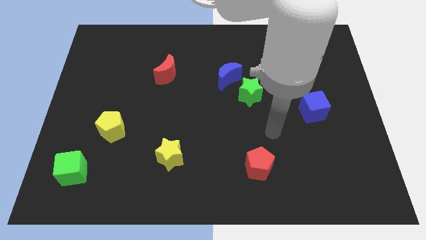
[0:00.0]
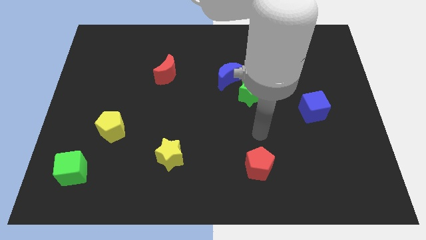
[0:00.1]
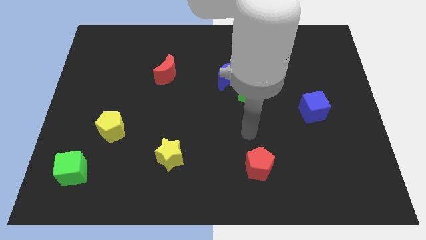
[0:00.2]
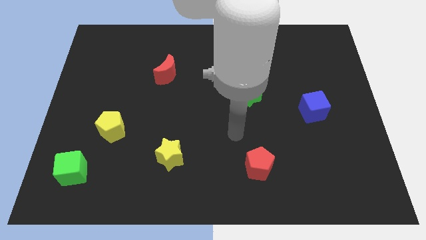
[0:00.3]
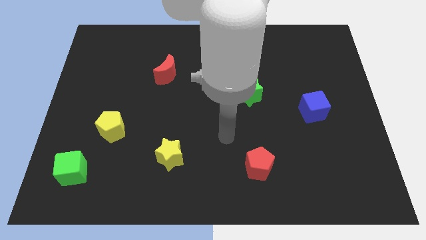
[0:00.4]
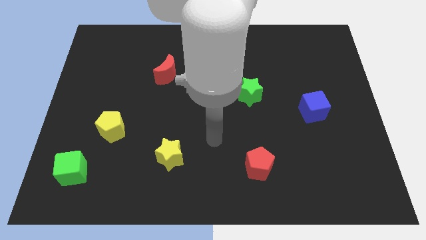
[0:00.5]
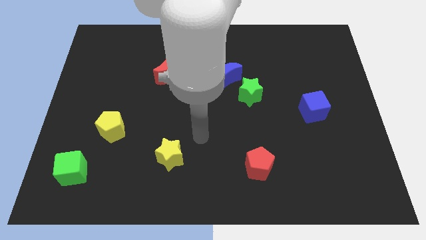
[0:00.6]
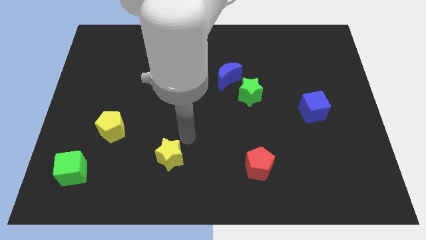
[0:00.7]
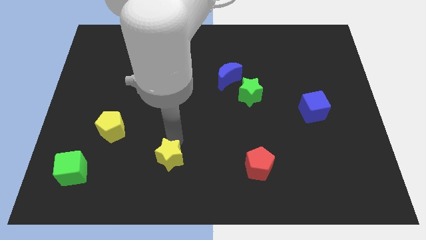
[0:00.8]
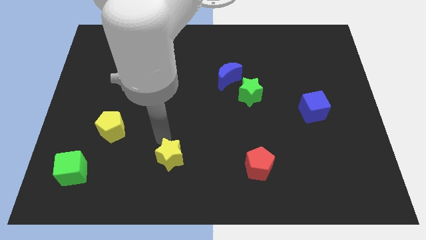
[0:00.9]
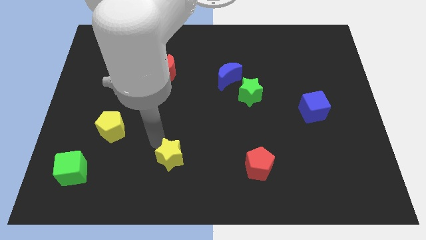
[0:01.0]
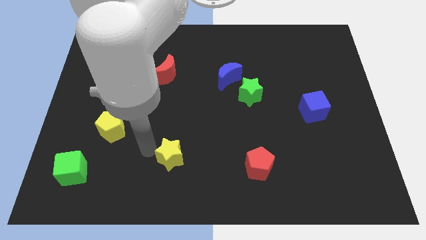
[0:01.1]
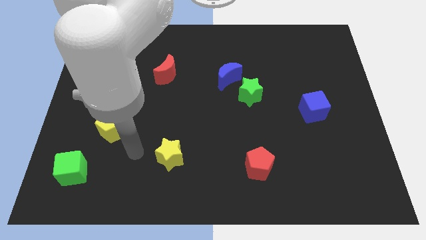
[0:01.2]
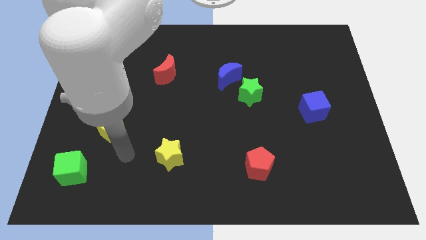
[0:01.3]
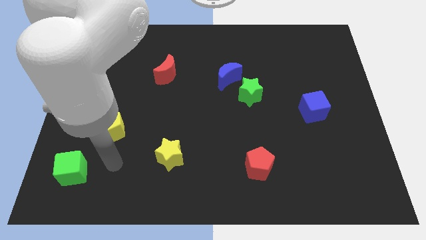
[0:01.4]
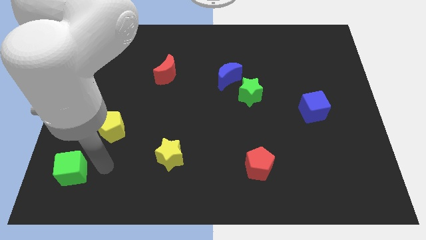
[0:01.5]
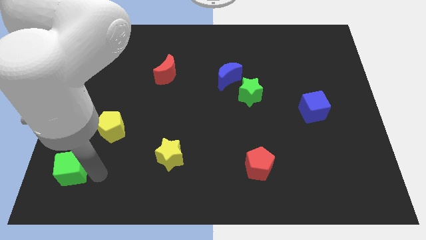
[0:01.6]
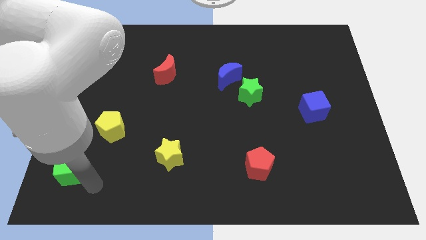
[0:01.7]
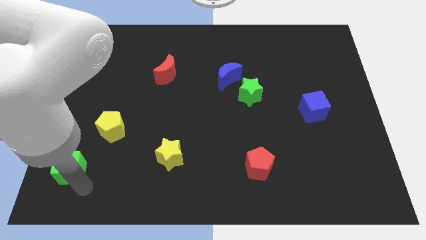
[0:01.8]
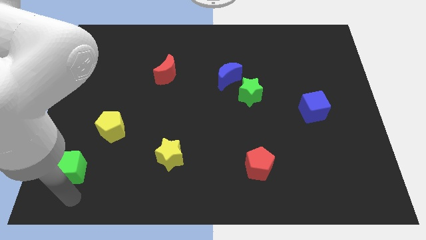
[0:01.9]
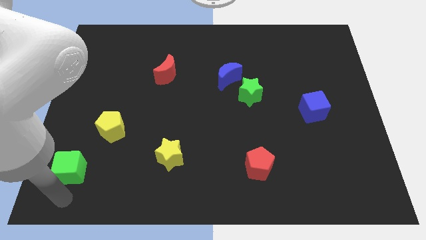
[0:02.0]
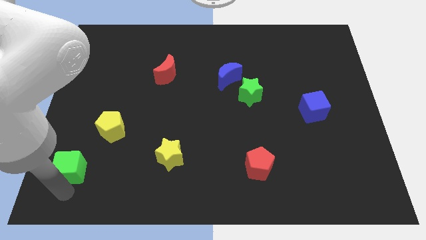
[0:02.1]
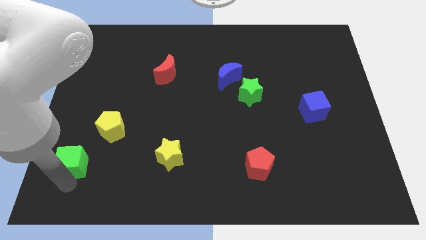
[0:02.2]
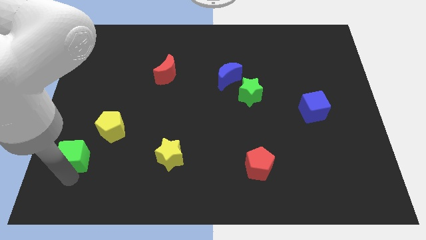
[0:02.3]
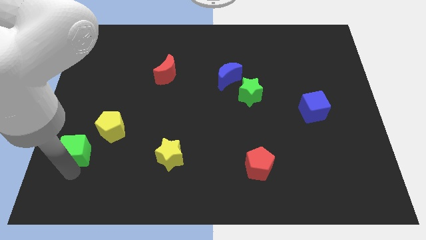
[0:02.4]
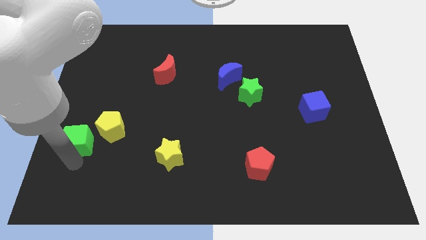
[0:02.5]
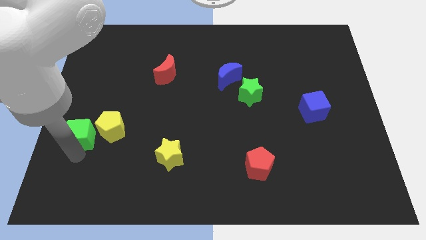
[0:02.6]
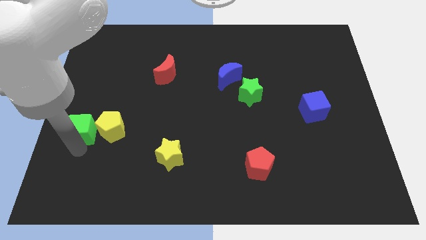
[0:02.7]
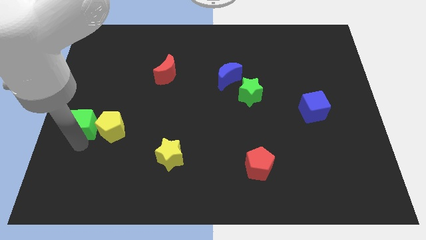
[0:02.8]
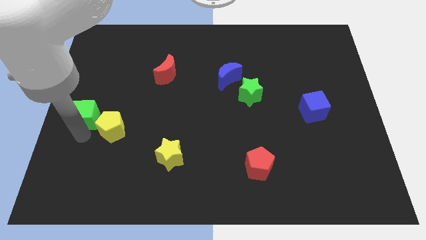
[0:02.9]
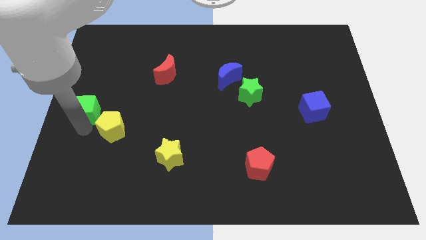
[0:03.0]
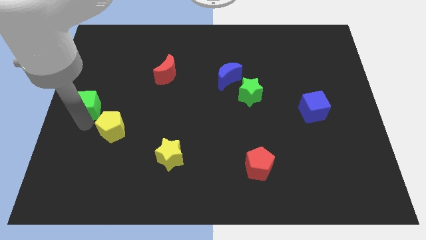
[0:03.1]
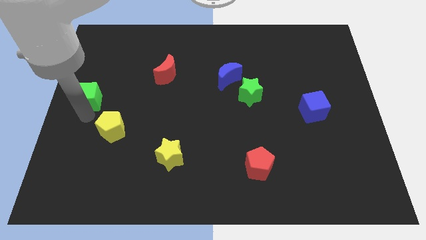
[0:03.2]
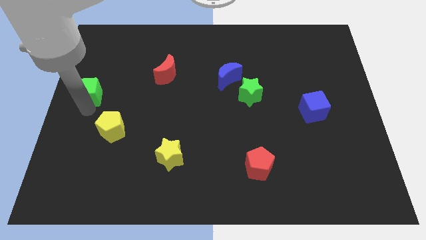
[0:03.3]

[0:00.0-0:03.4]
move the green cube up

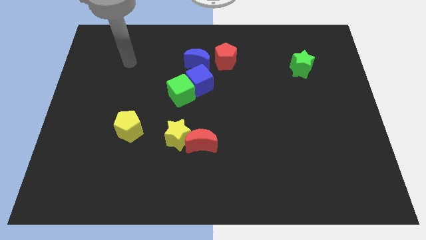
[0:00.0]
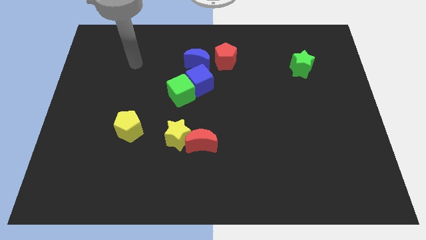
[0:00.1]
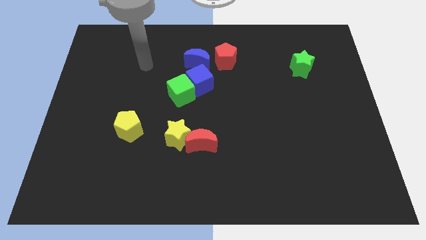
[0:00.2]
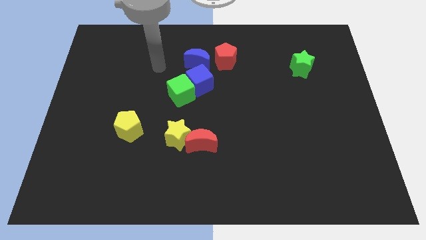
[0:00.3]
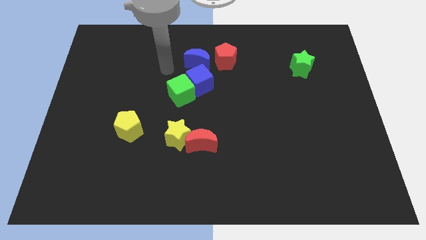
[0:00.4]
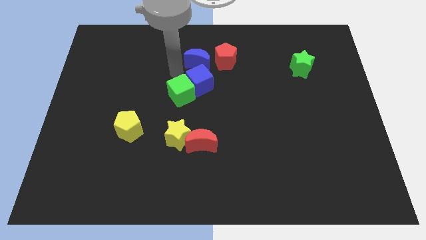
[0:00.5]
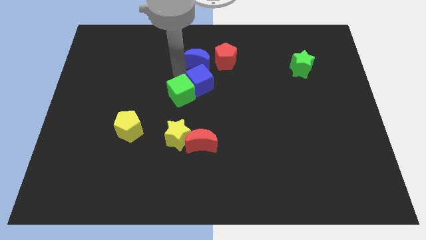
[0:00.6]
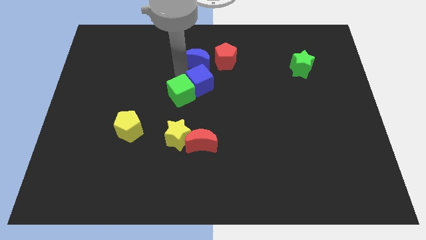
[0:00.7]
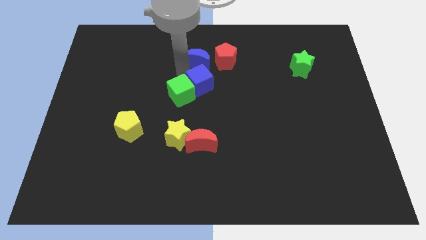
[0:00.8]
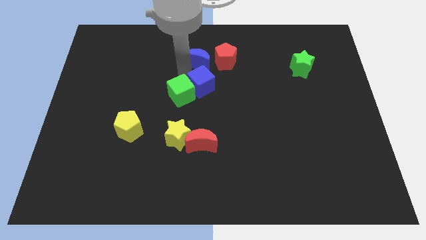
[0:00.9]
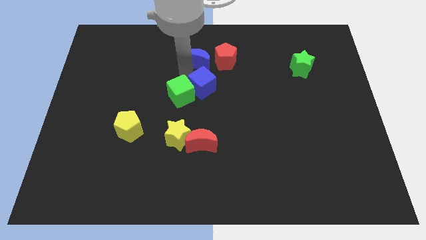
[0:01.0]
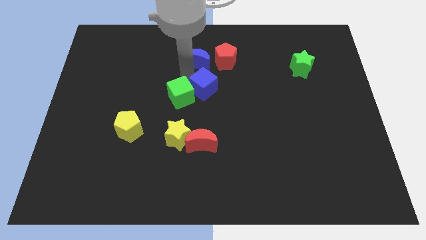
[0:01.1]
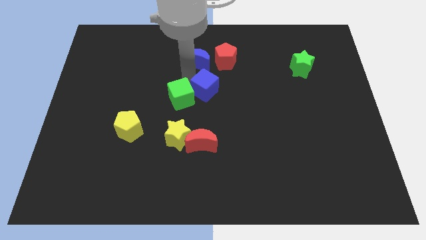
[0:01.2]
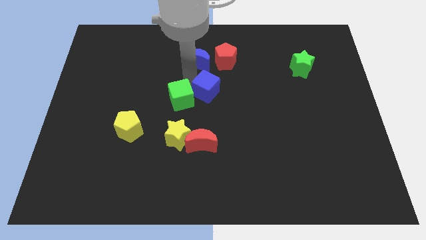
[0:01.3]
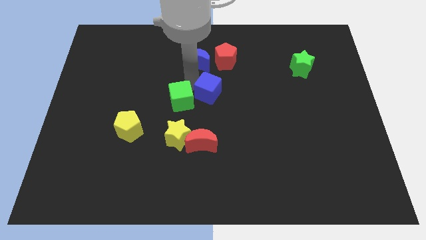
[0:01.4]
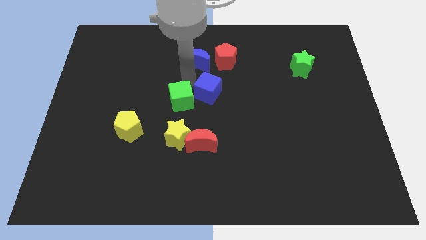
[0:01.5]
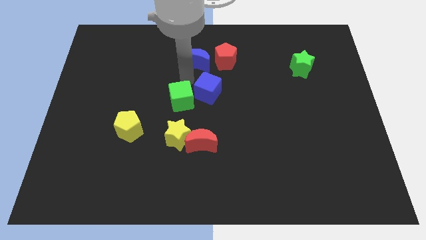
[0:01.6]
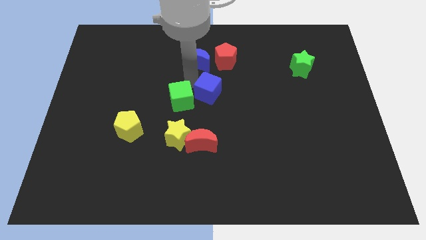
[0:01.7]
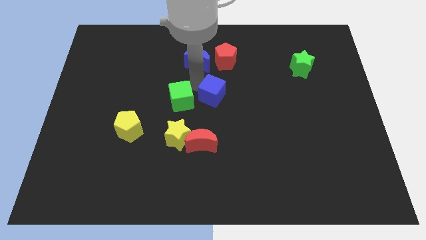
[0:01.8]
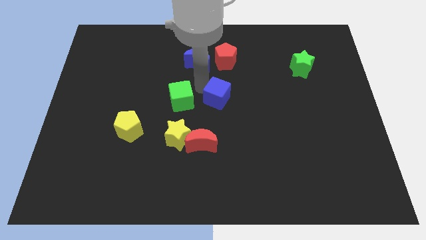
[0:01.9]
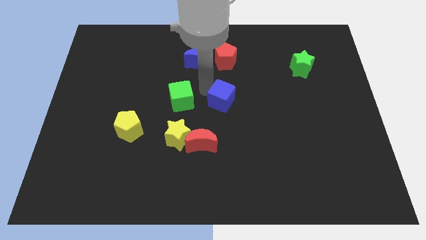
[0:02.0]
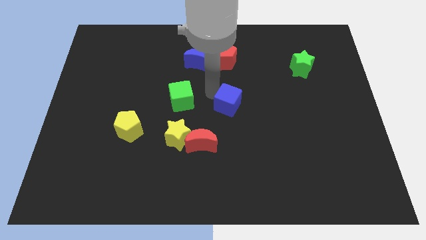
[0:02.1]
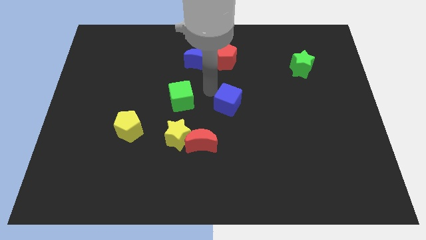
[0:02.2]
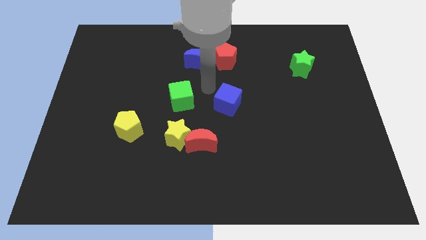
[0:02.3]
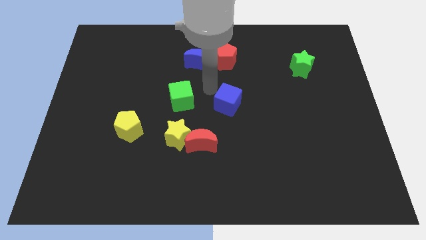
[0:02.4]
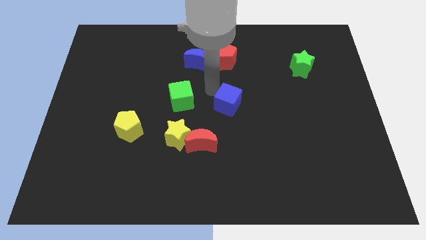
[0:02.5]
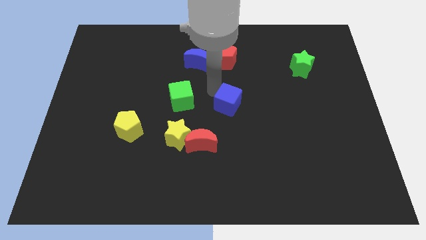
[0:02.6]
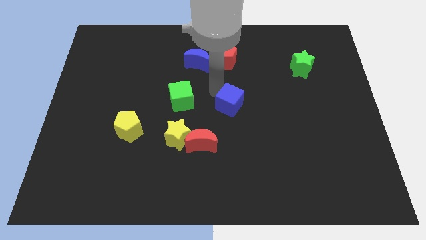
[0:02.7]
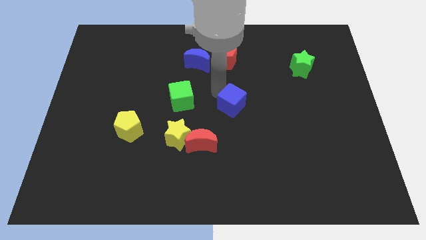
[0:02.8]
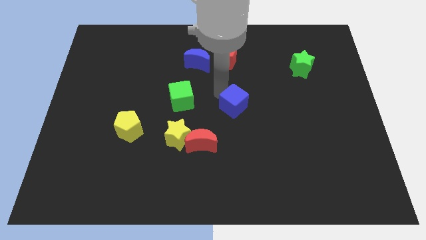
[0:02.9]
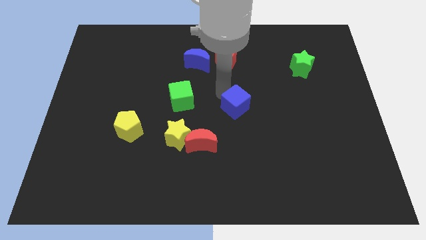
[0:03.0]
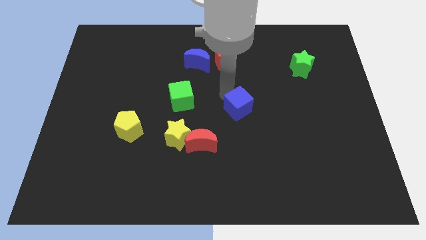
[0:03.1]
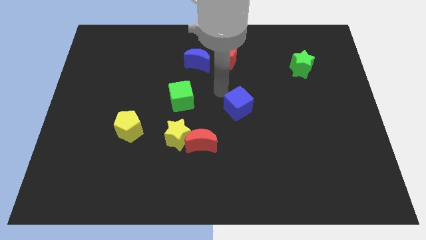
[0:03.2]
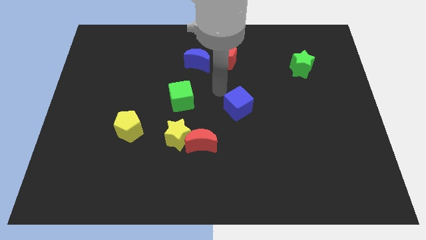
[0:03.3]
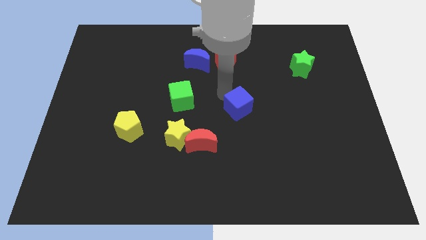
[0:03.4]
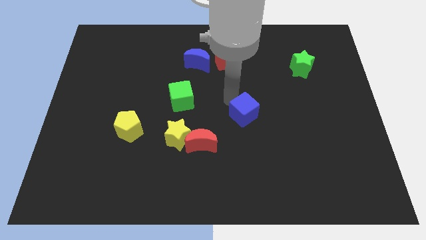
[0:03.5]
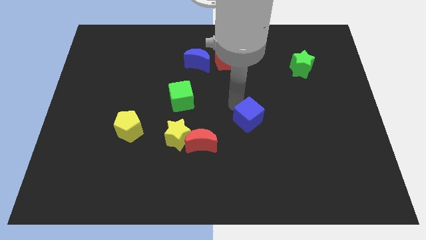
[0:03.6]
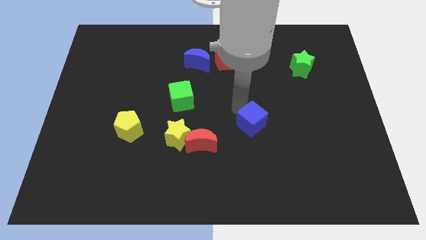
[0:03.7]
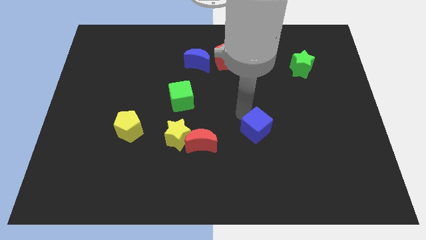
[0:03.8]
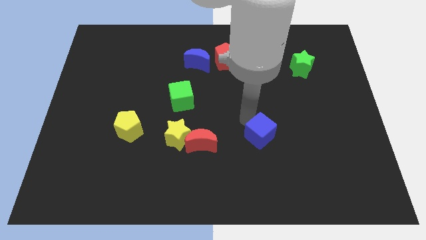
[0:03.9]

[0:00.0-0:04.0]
slide the blue cube diagonally down and right

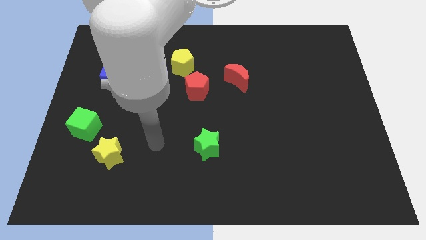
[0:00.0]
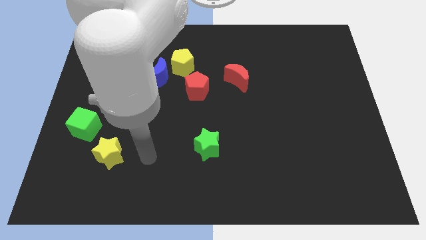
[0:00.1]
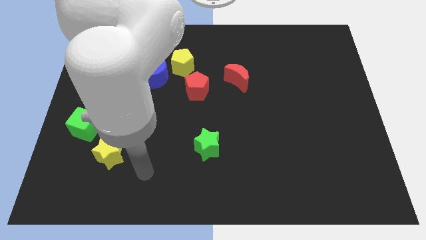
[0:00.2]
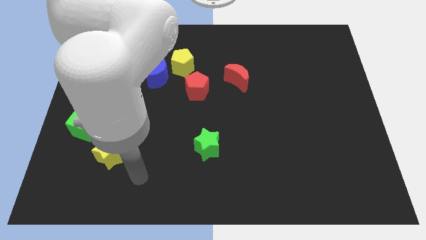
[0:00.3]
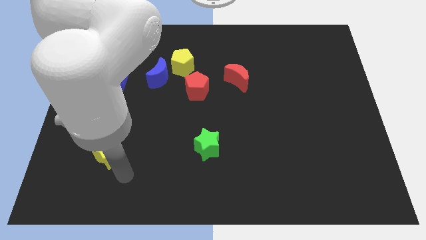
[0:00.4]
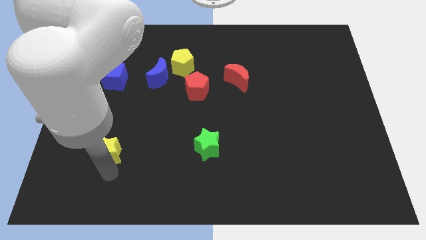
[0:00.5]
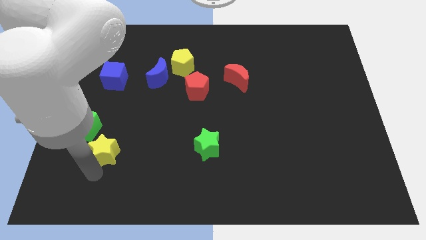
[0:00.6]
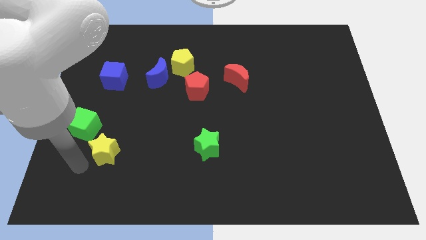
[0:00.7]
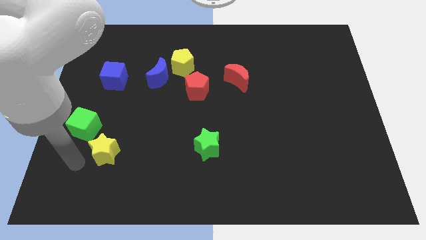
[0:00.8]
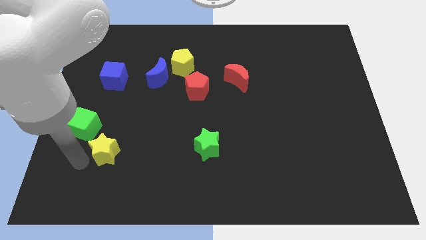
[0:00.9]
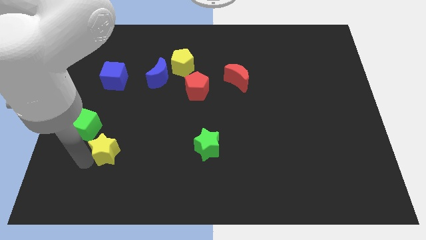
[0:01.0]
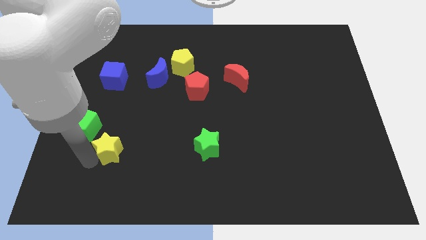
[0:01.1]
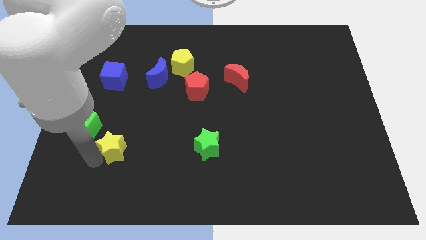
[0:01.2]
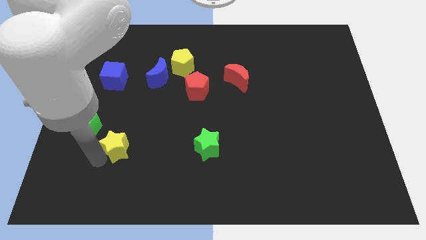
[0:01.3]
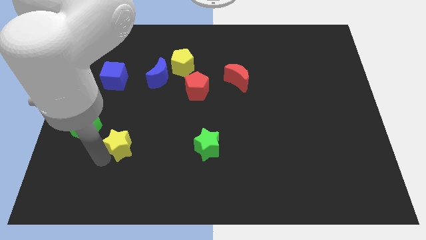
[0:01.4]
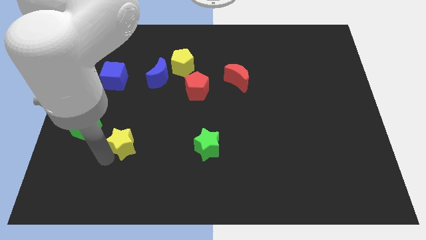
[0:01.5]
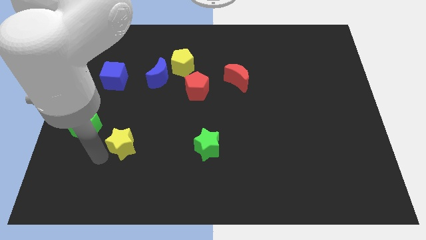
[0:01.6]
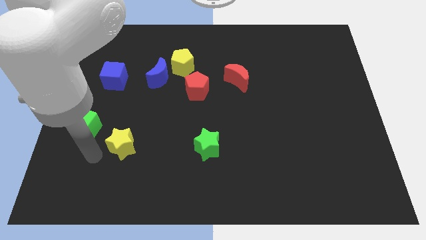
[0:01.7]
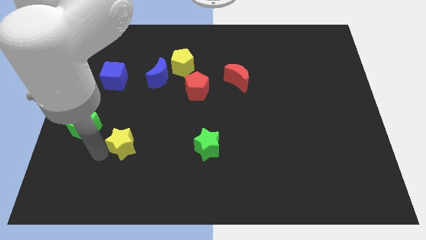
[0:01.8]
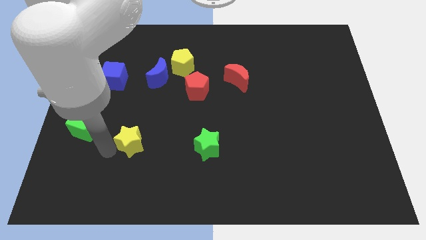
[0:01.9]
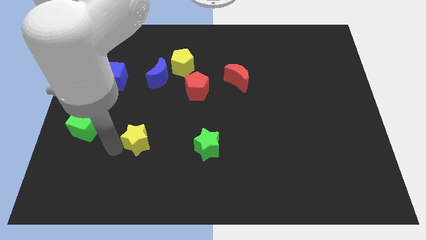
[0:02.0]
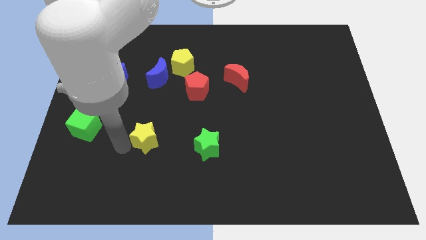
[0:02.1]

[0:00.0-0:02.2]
slightly push the yellow star up and to the right diagonally
